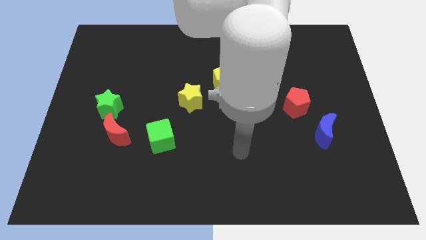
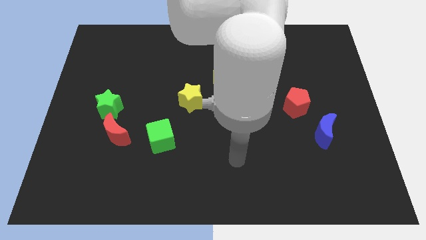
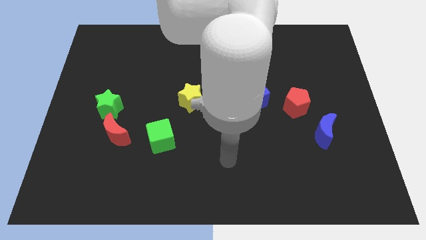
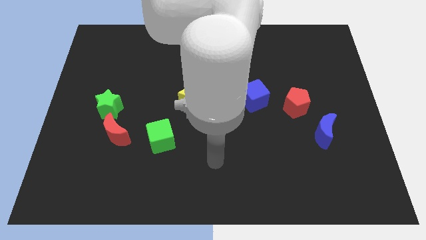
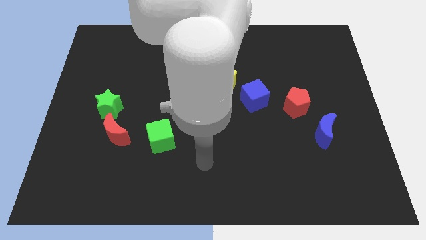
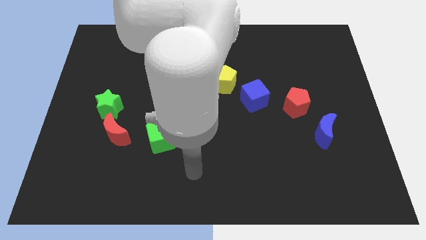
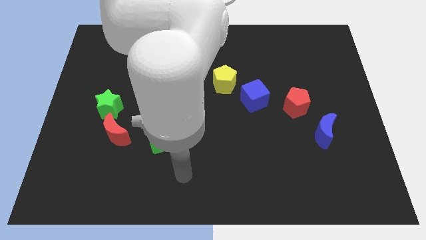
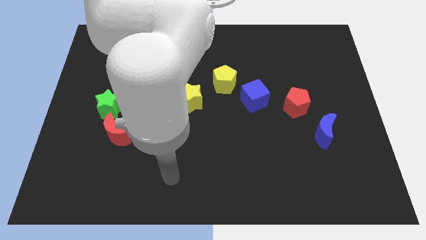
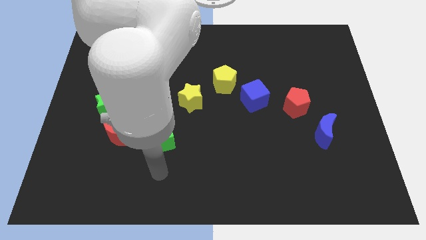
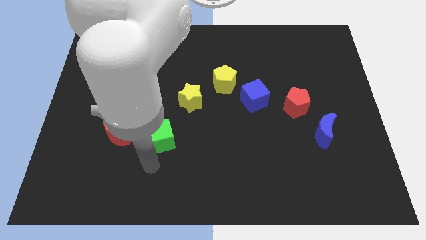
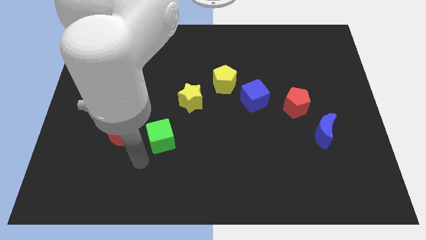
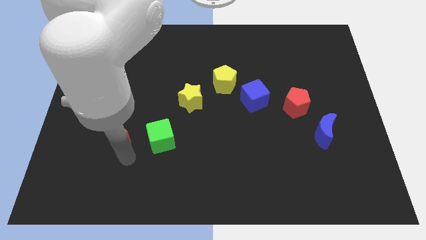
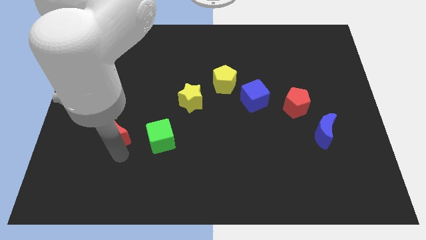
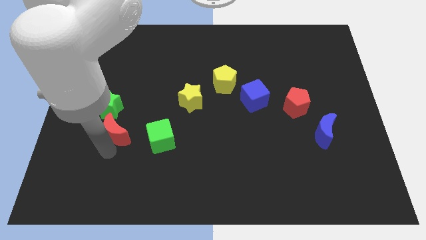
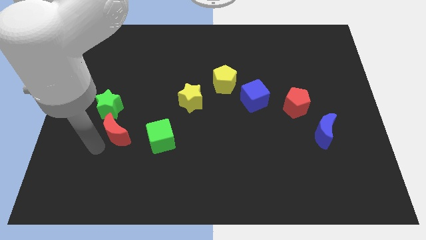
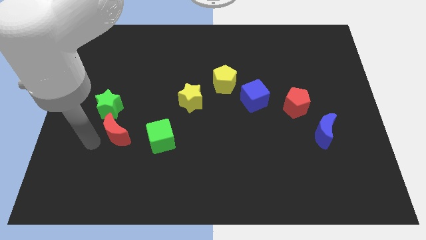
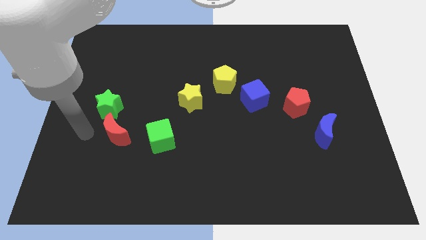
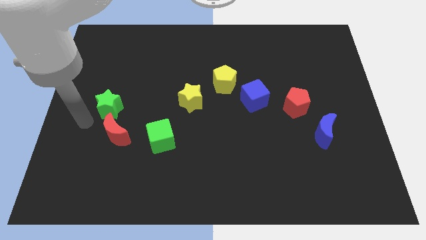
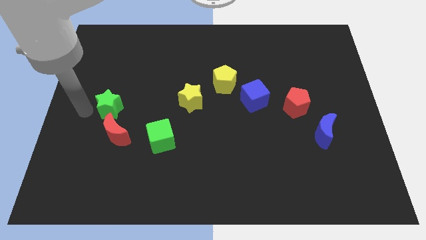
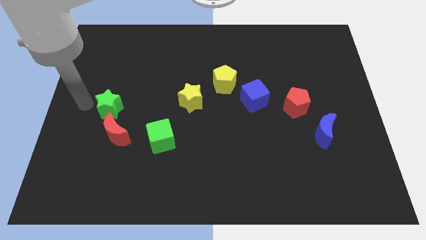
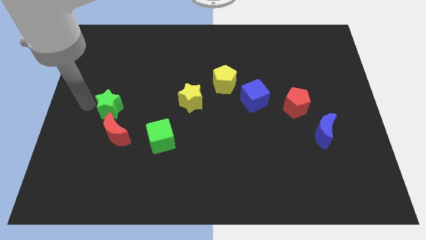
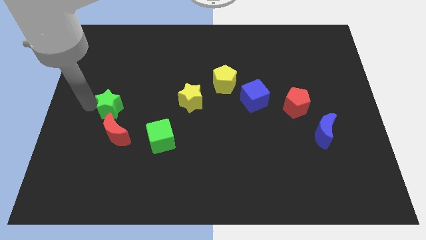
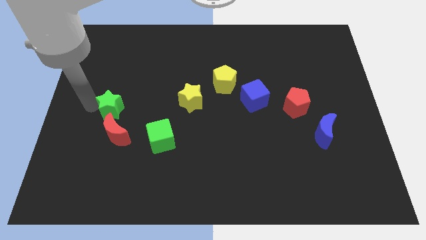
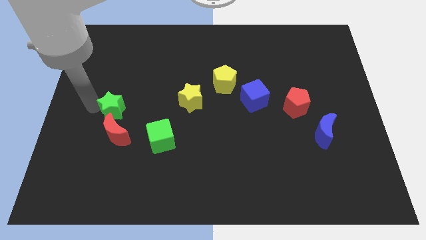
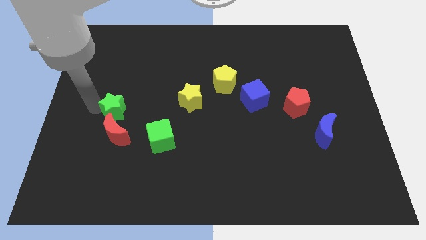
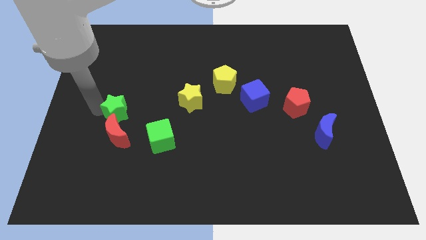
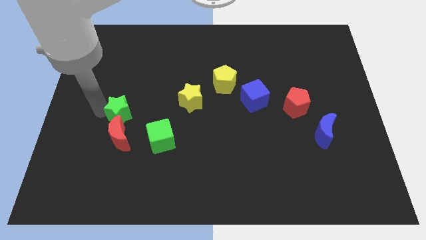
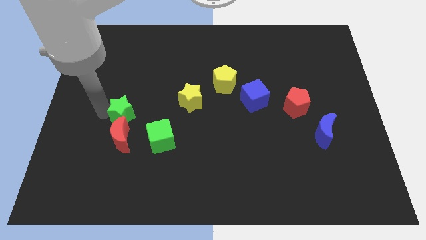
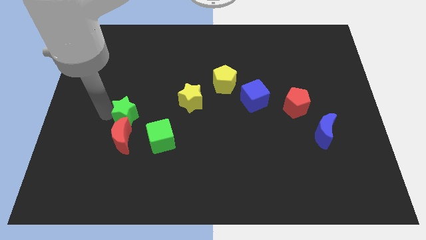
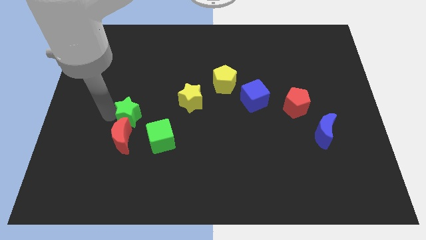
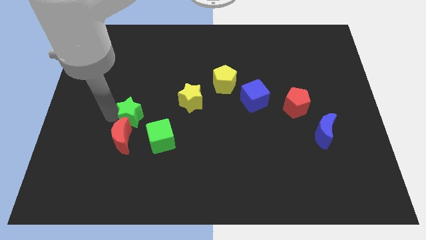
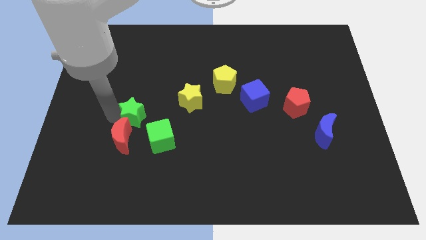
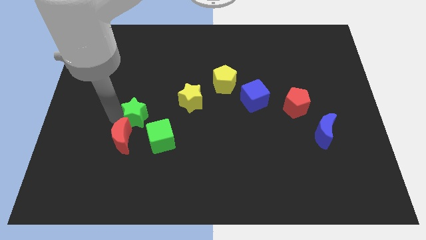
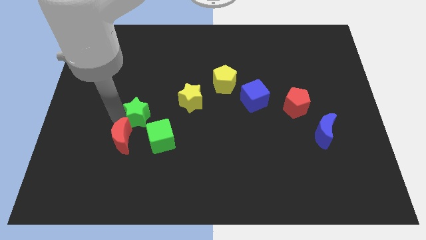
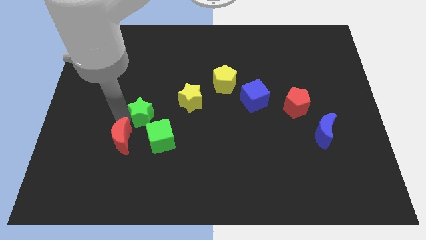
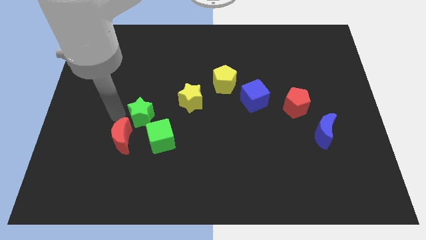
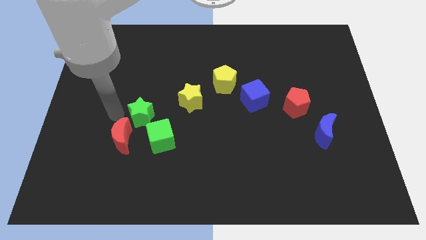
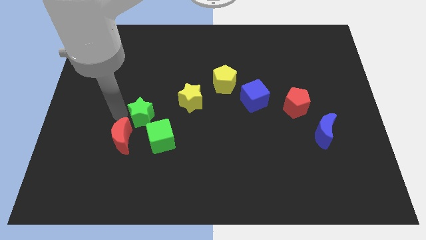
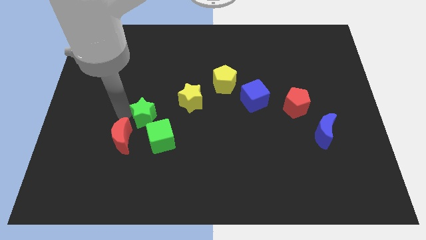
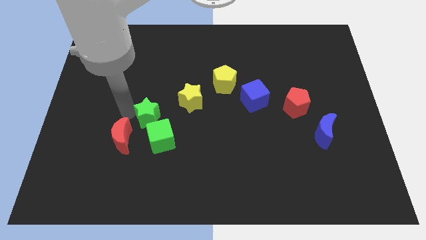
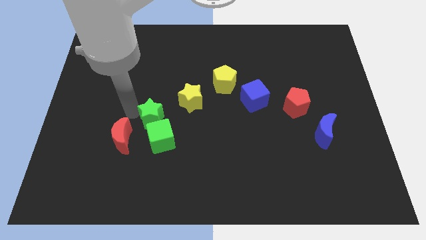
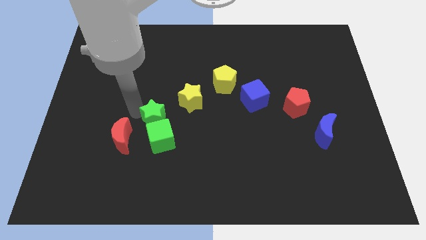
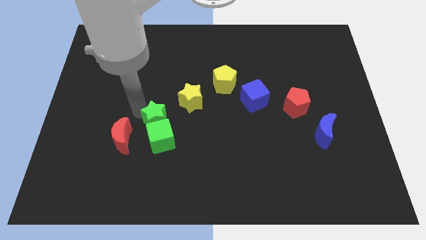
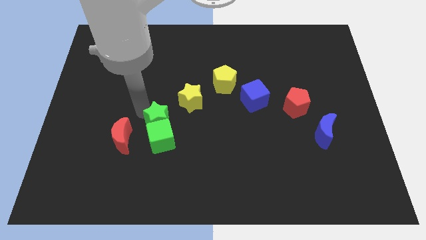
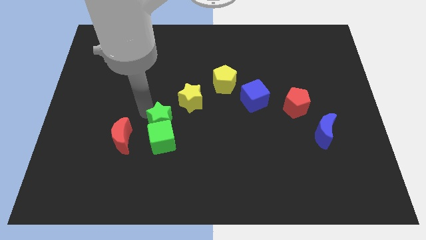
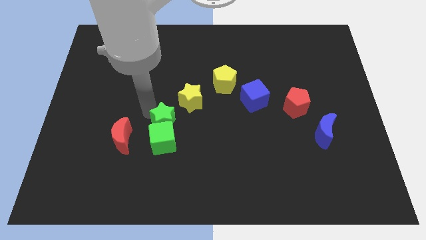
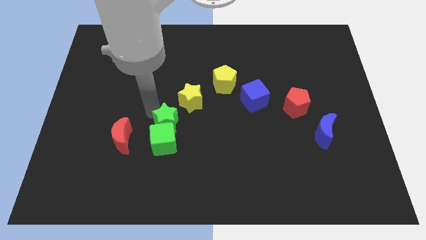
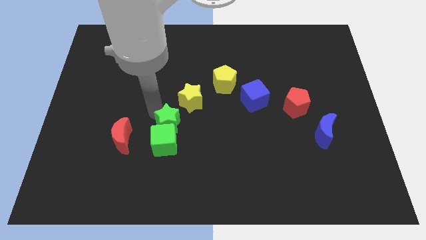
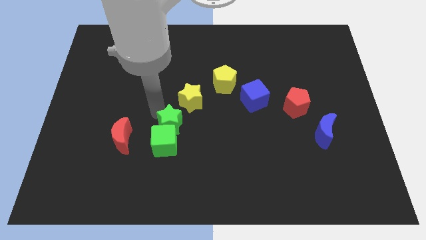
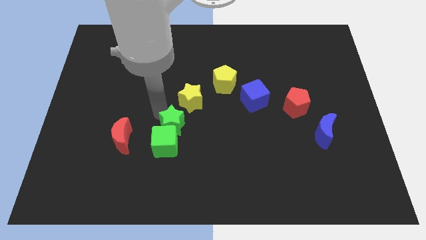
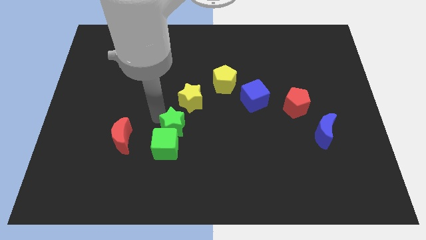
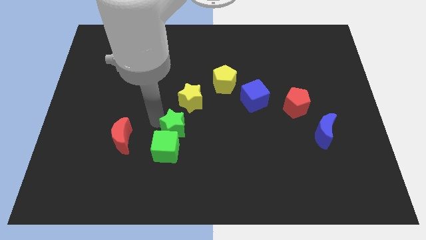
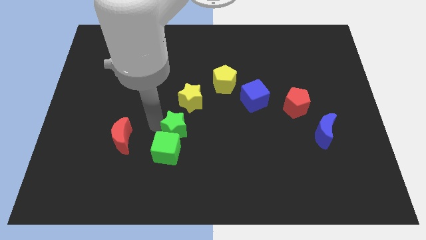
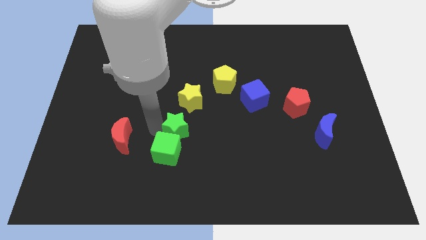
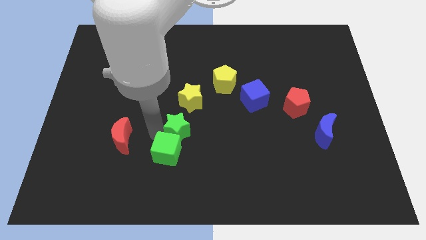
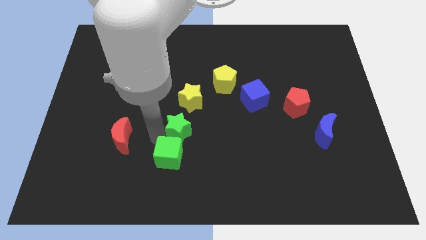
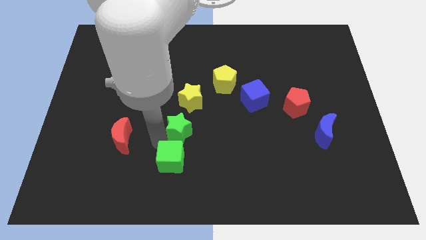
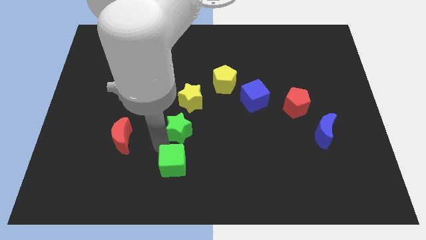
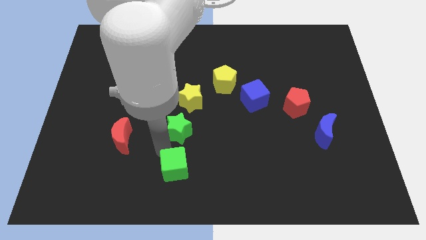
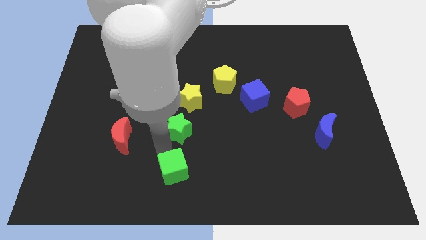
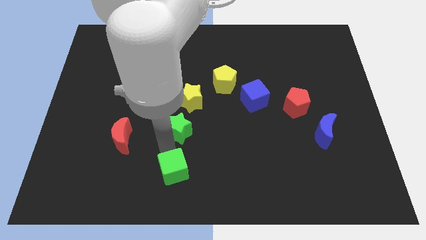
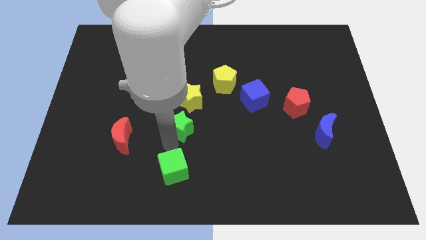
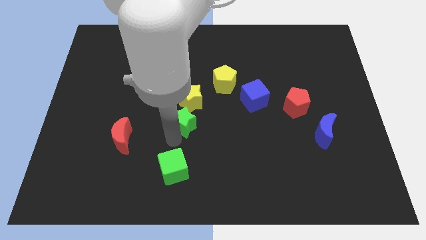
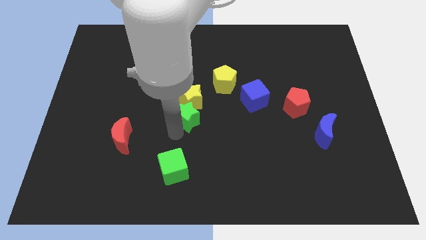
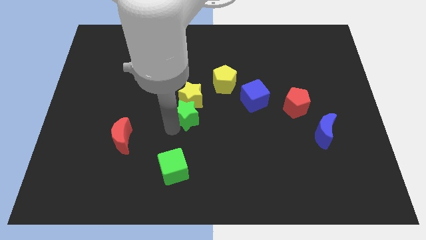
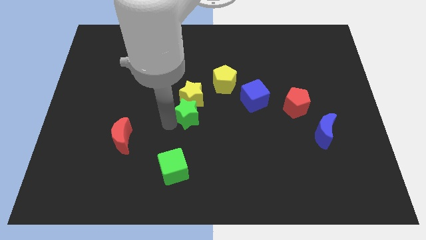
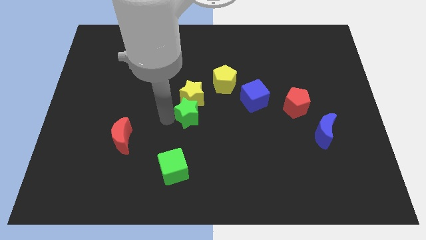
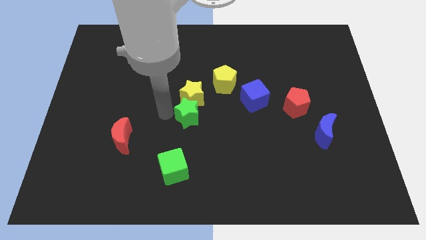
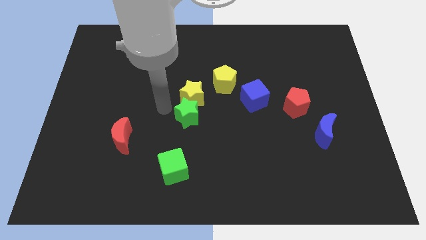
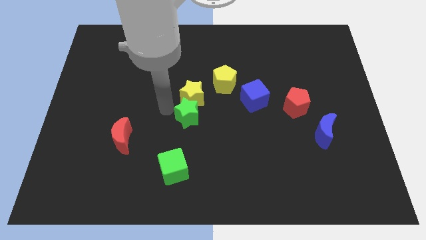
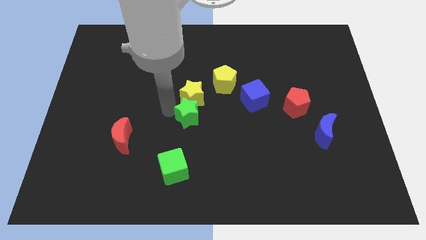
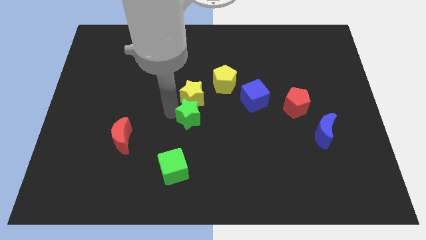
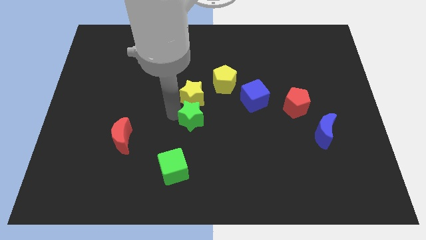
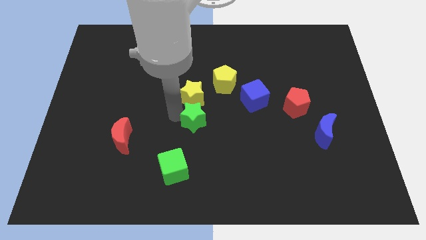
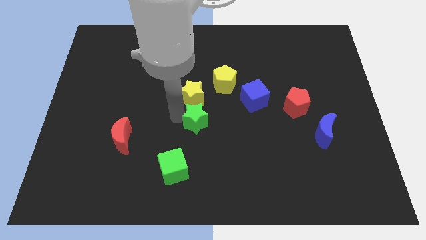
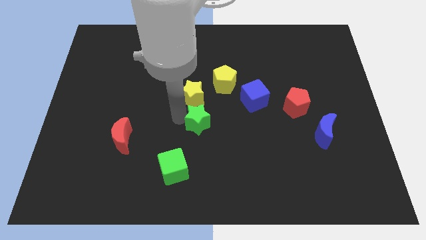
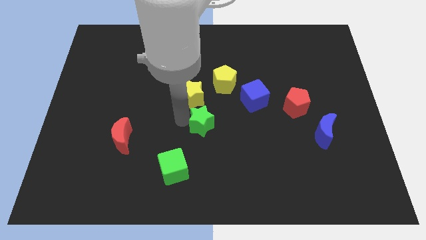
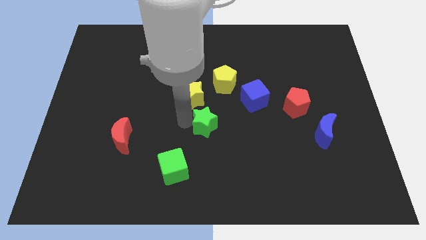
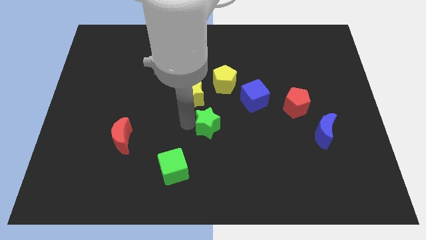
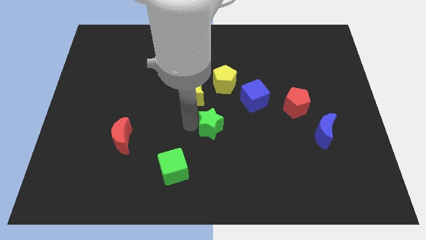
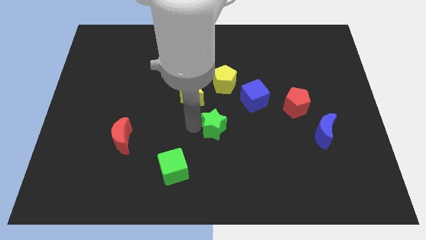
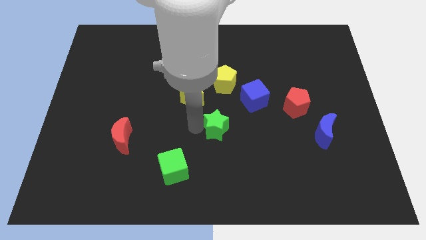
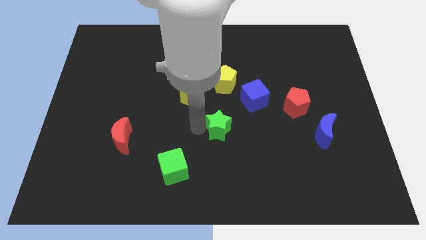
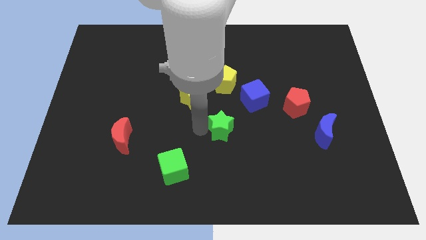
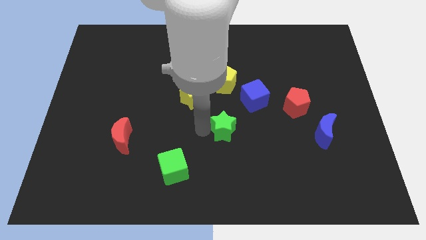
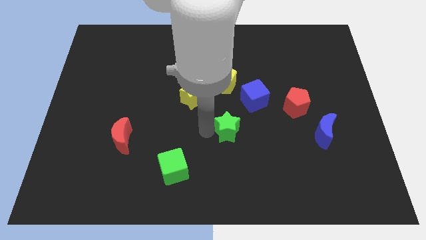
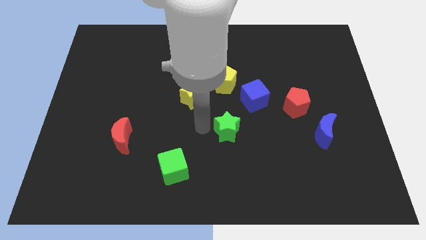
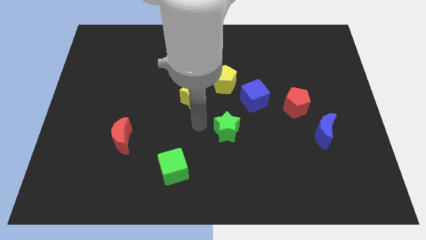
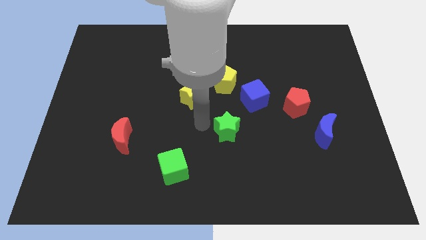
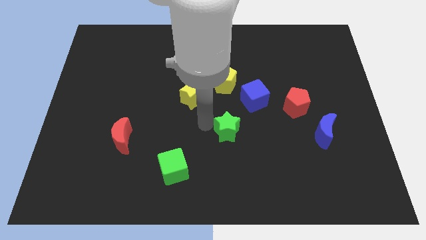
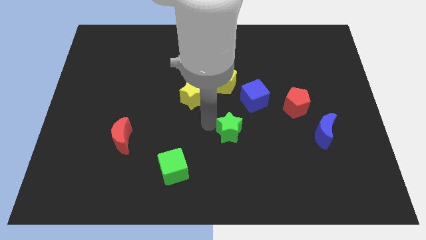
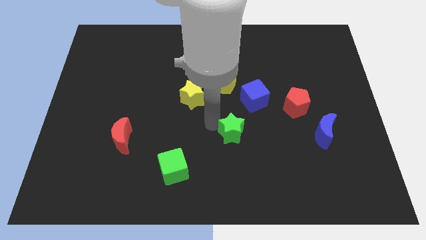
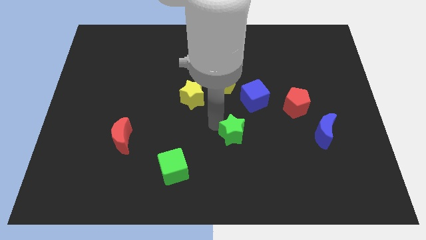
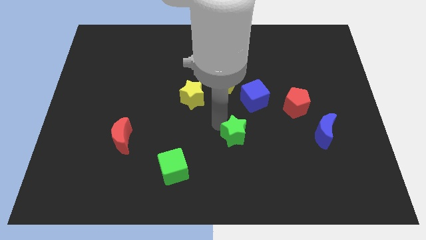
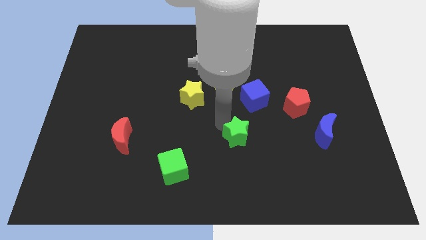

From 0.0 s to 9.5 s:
push the green star to the bottom of the blue cube
